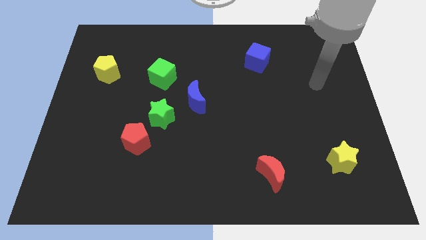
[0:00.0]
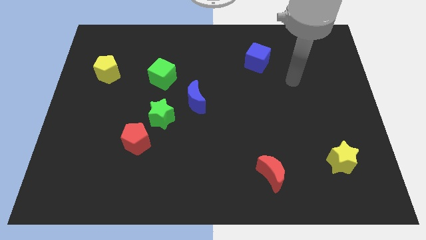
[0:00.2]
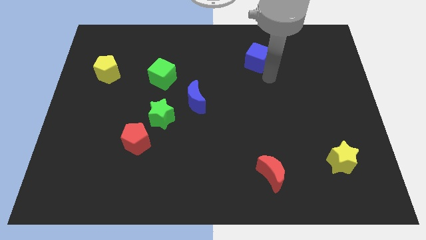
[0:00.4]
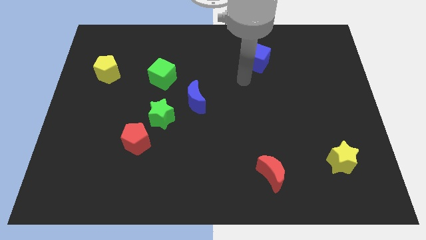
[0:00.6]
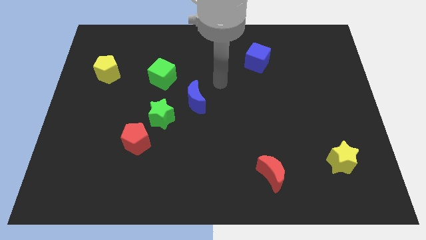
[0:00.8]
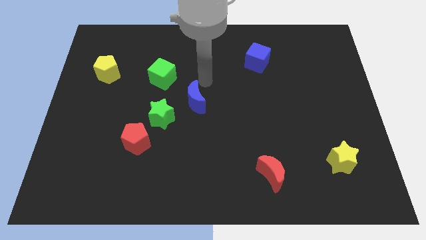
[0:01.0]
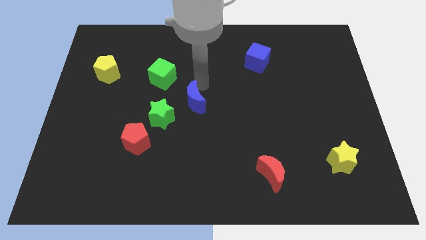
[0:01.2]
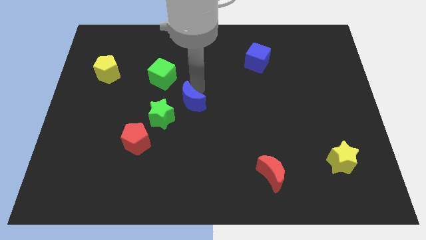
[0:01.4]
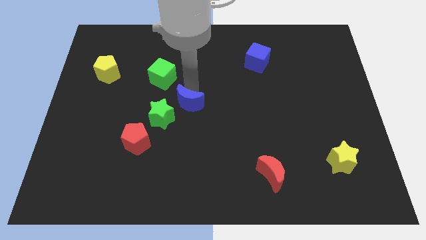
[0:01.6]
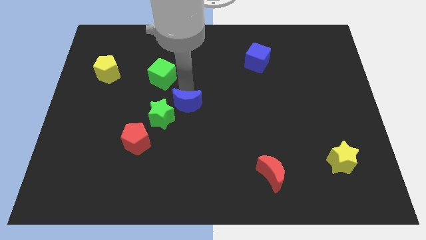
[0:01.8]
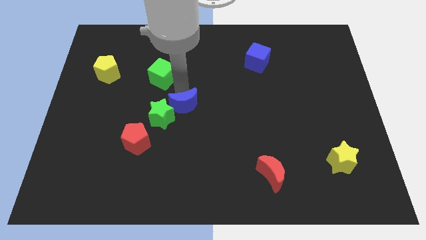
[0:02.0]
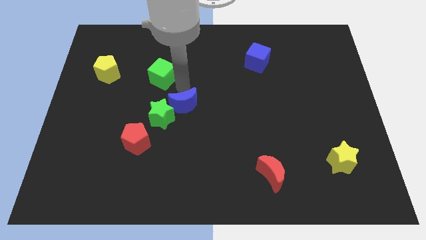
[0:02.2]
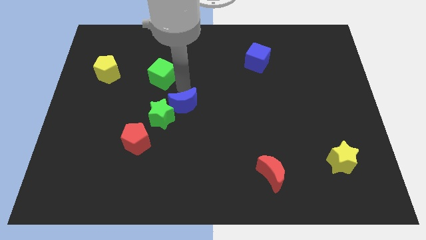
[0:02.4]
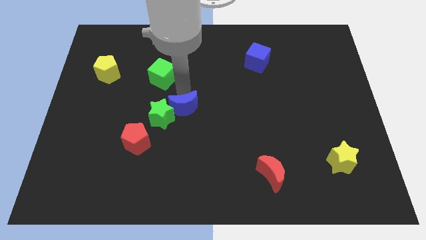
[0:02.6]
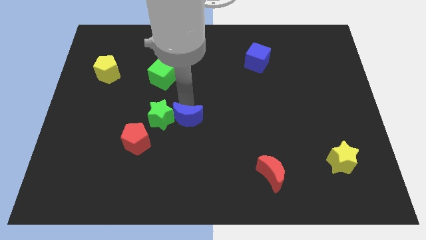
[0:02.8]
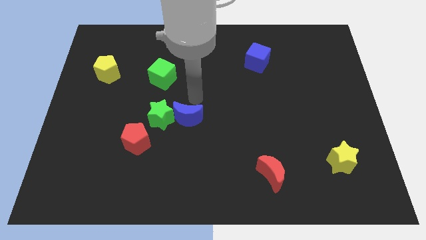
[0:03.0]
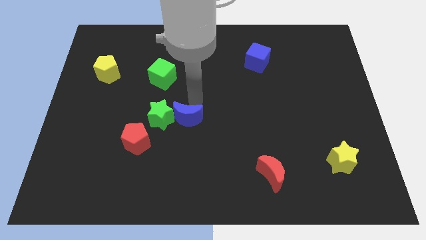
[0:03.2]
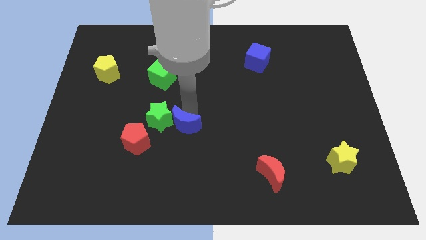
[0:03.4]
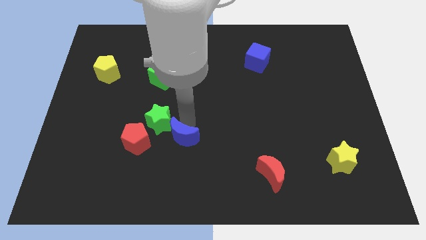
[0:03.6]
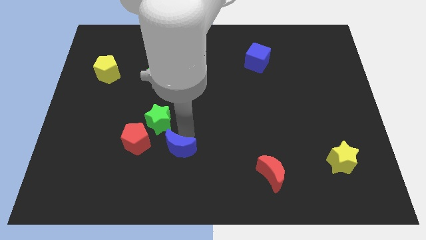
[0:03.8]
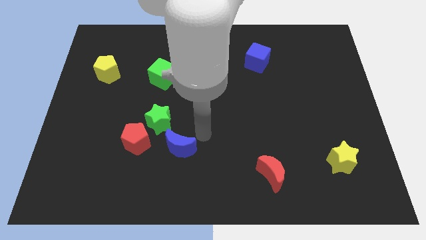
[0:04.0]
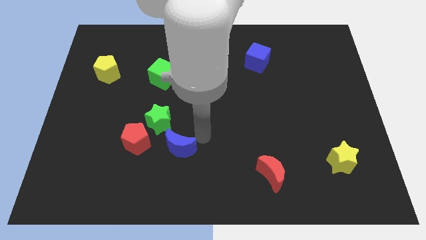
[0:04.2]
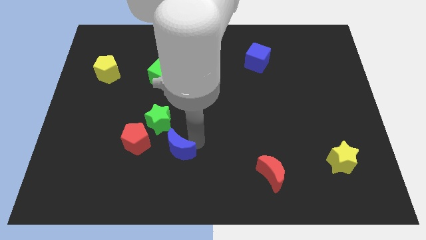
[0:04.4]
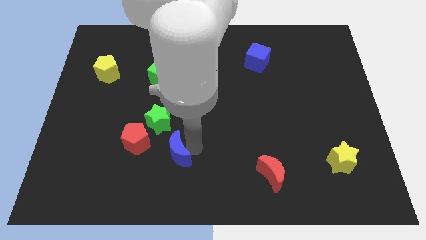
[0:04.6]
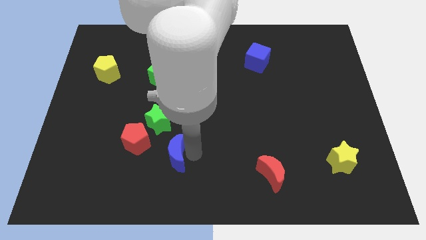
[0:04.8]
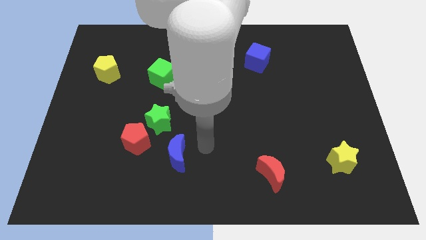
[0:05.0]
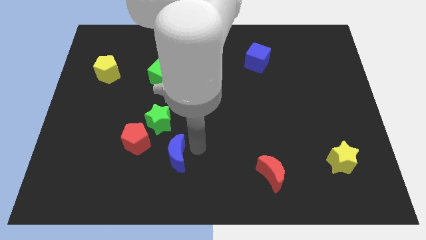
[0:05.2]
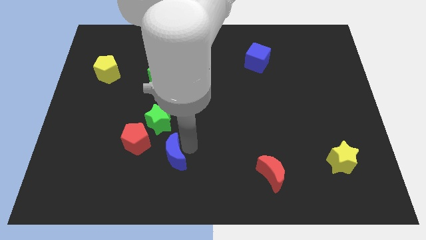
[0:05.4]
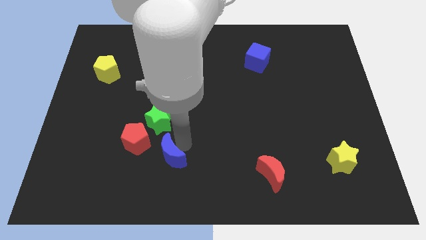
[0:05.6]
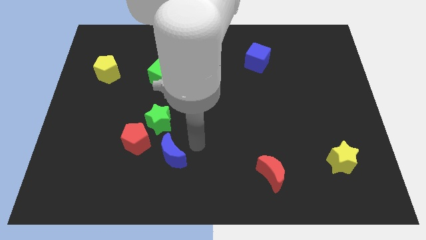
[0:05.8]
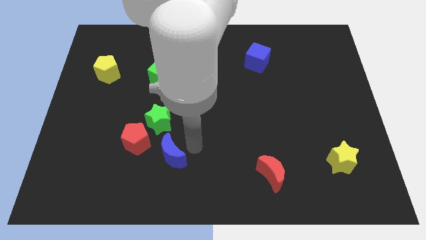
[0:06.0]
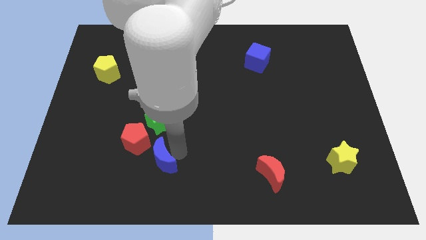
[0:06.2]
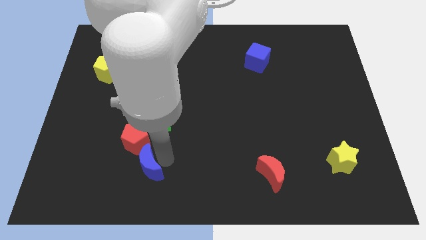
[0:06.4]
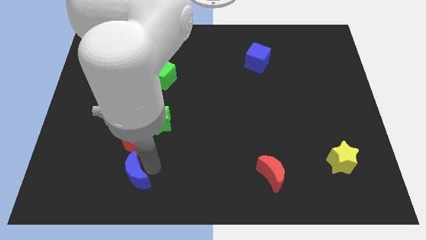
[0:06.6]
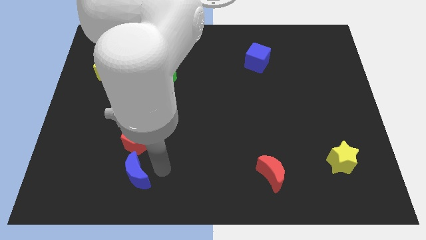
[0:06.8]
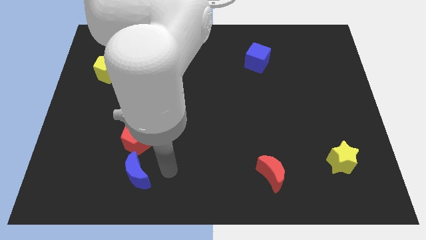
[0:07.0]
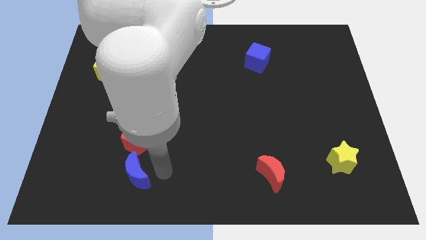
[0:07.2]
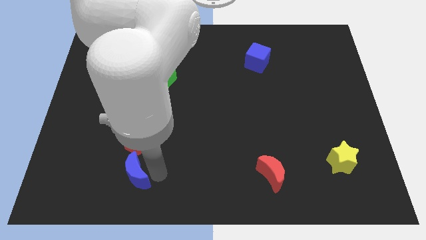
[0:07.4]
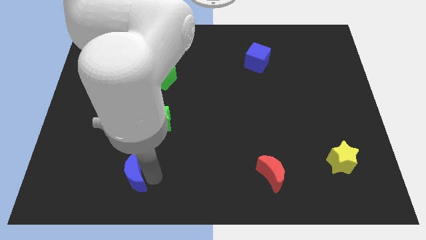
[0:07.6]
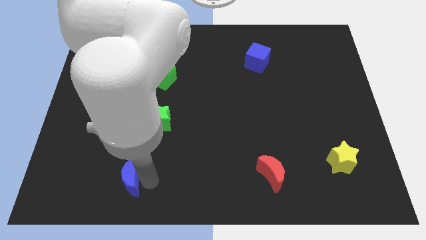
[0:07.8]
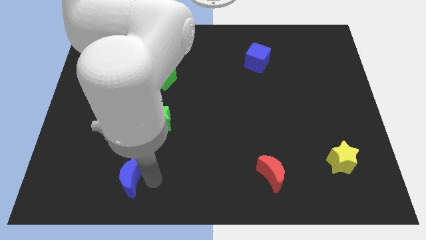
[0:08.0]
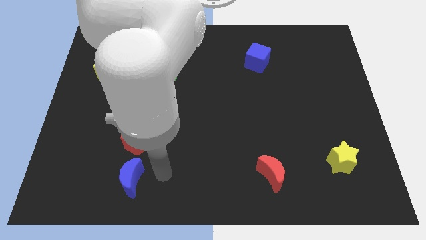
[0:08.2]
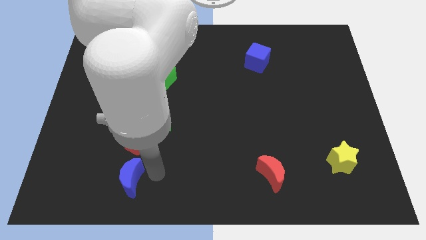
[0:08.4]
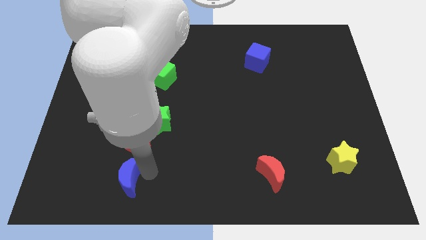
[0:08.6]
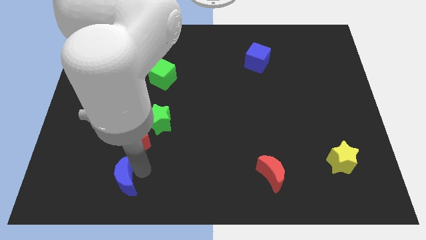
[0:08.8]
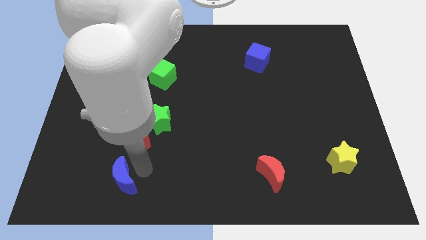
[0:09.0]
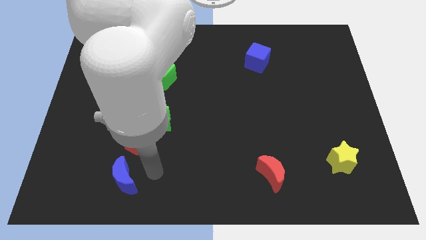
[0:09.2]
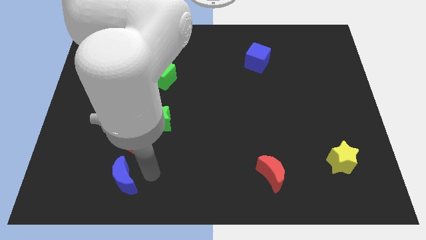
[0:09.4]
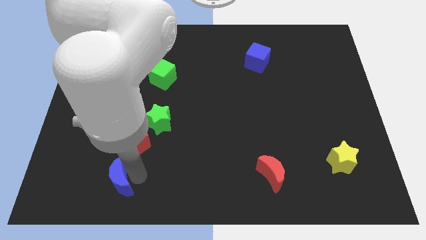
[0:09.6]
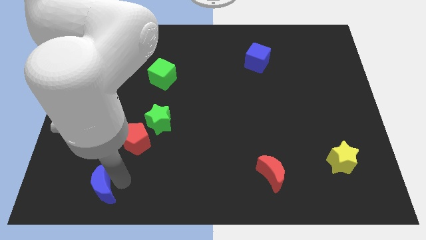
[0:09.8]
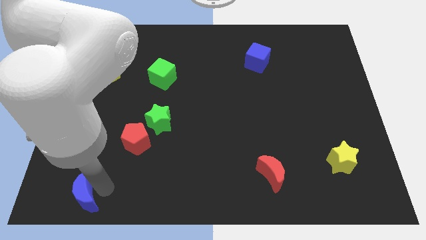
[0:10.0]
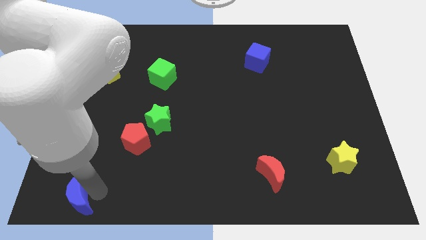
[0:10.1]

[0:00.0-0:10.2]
push the blue moon to the bottom left of the board
